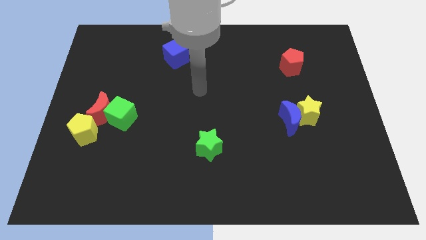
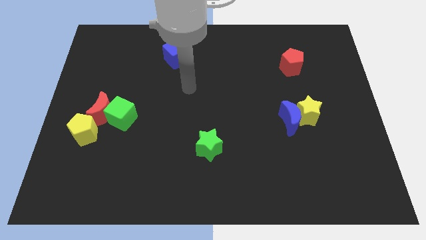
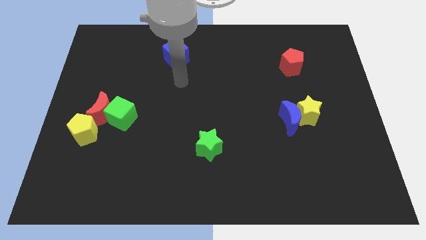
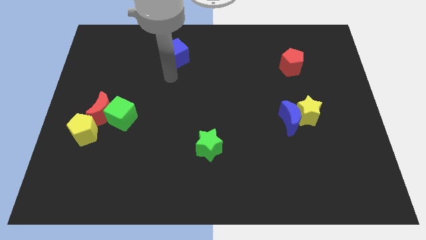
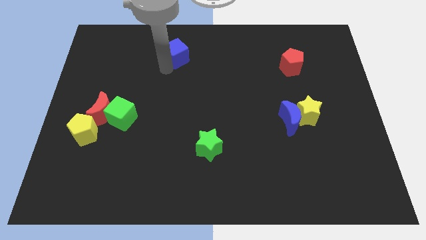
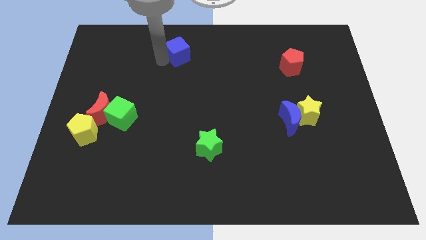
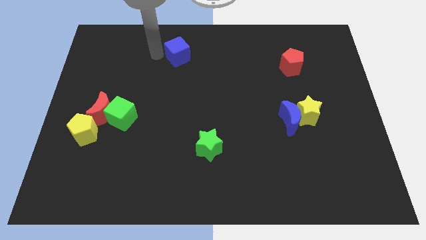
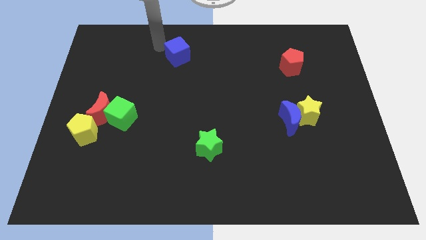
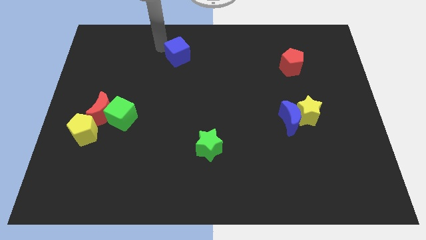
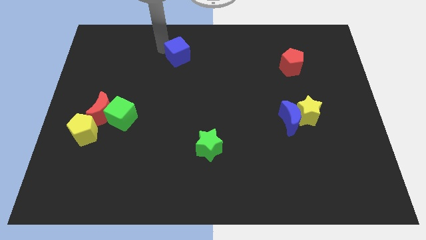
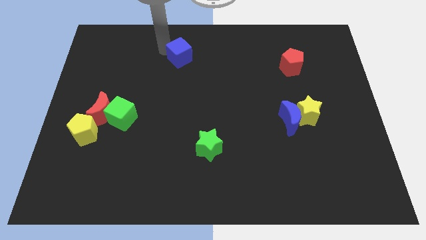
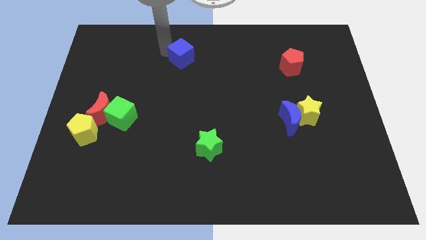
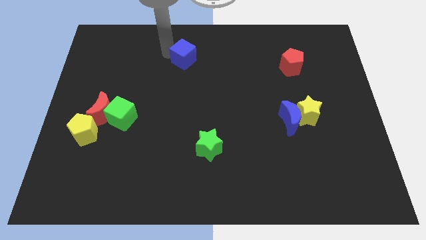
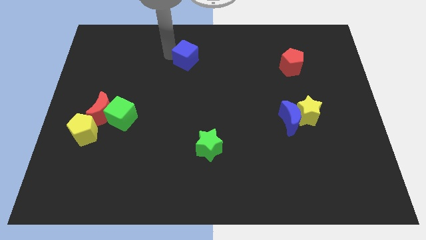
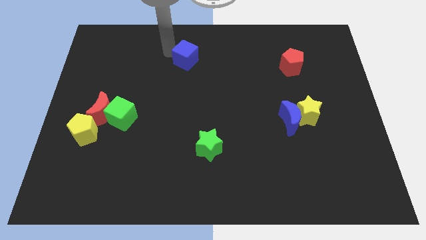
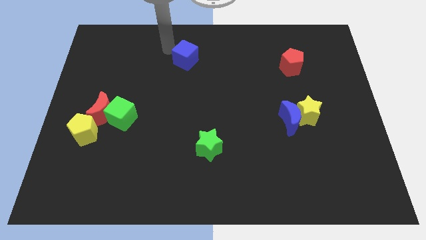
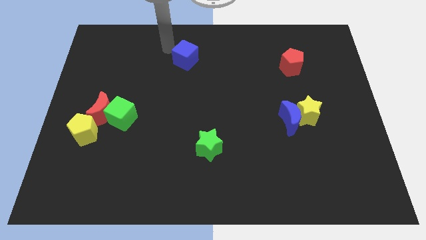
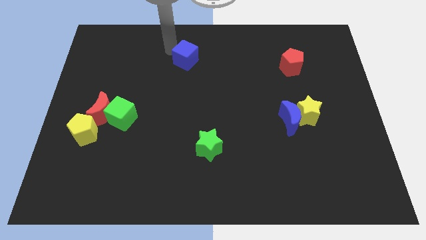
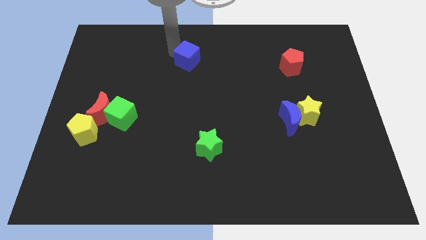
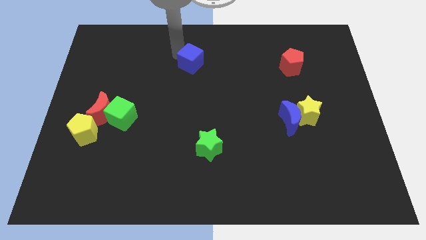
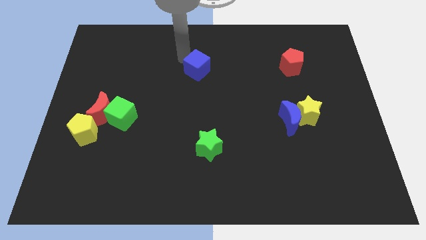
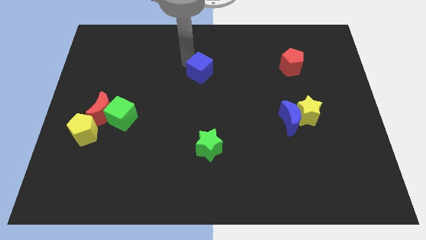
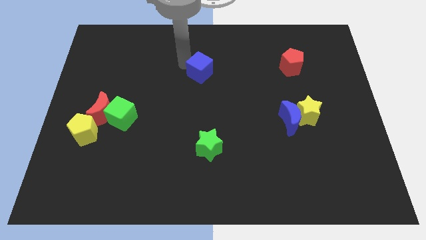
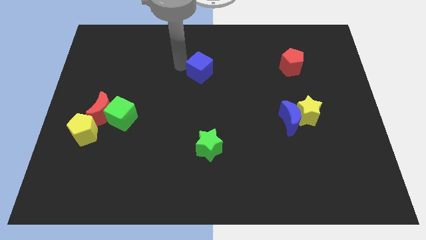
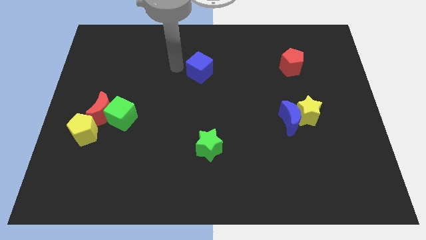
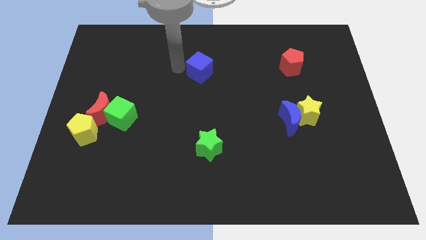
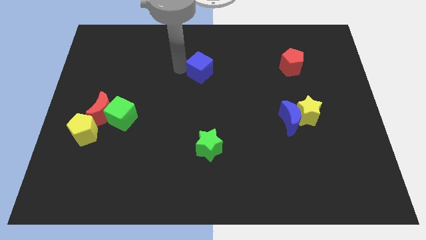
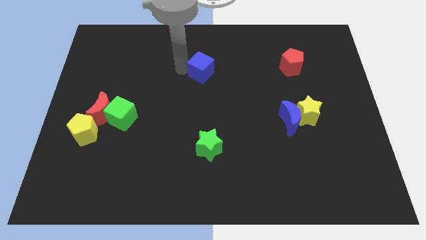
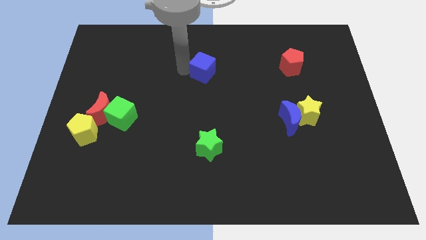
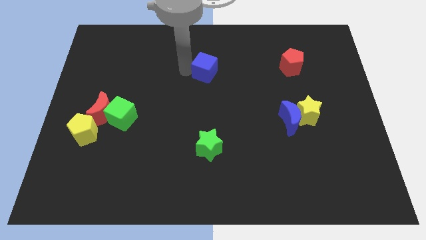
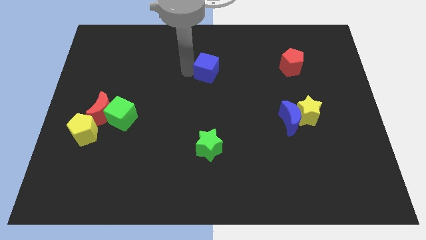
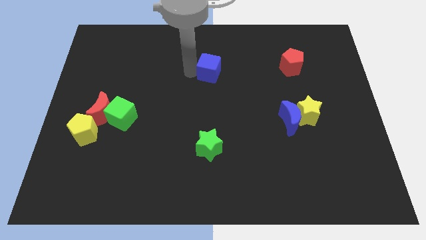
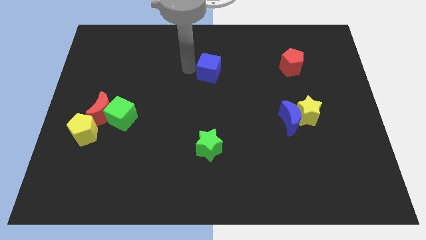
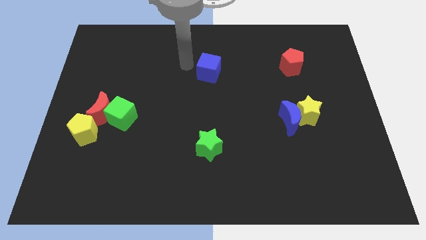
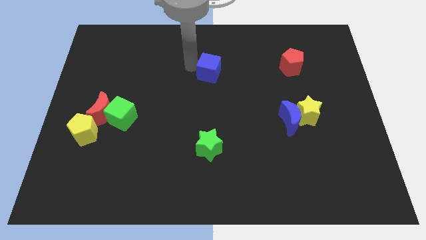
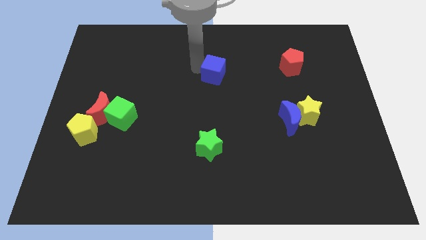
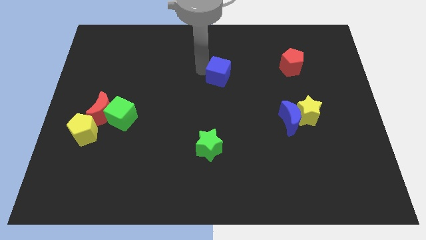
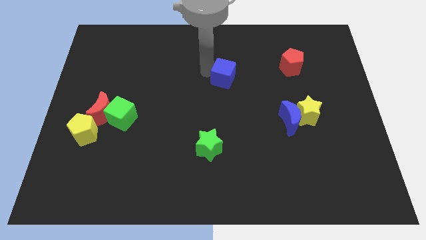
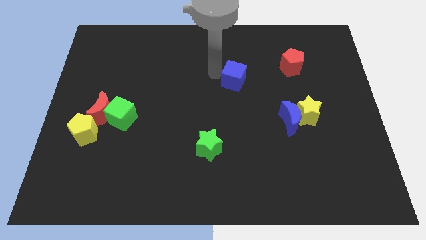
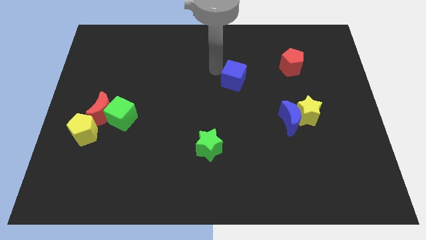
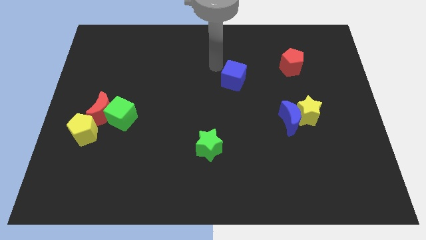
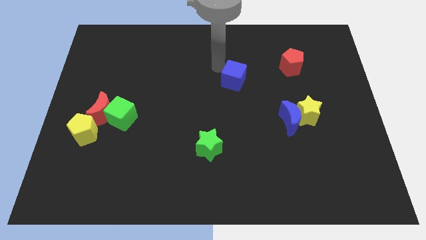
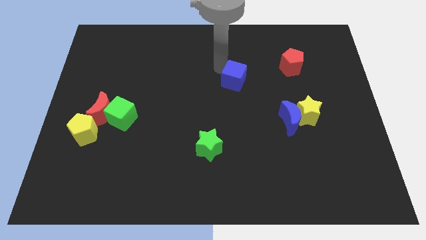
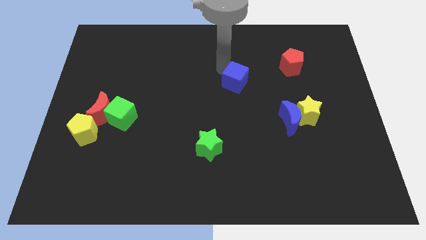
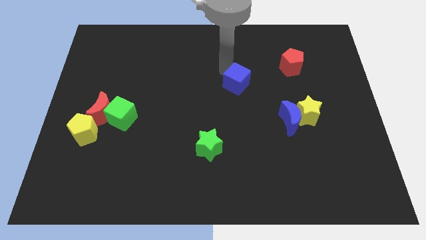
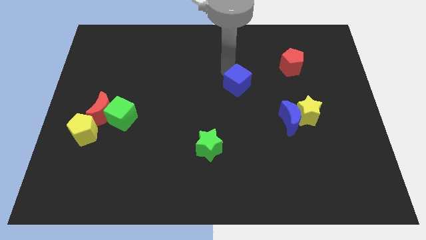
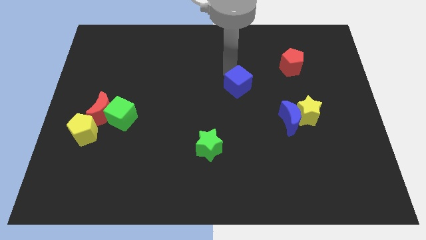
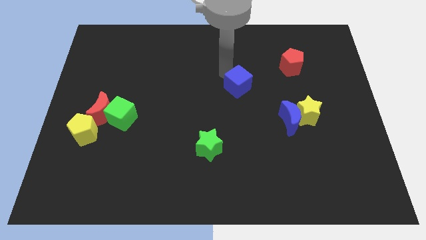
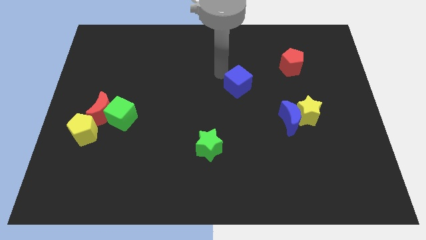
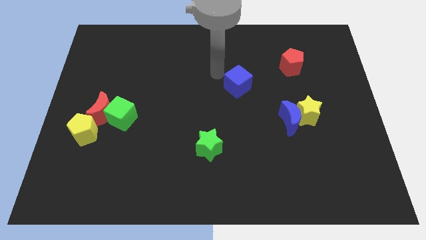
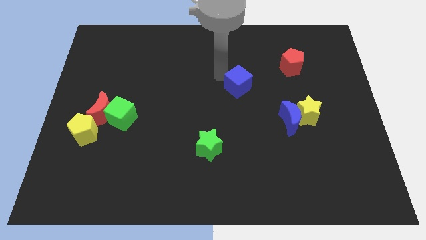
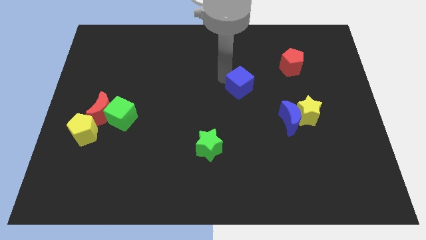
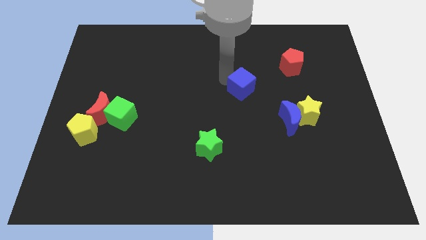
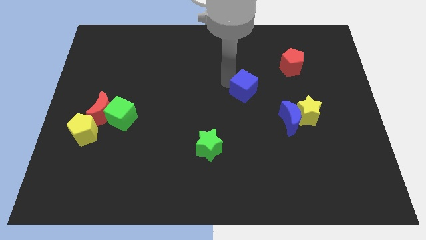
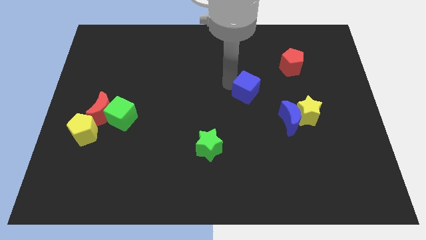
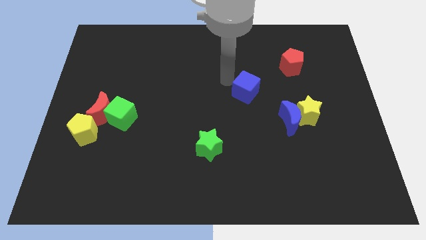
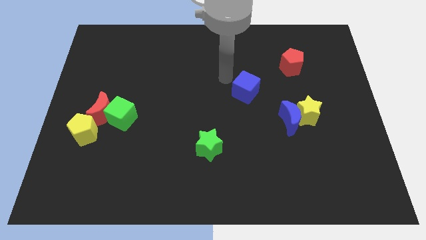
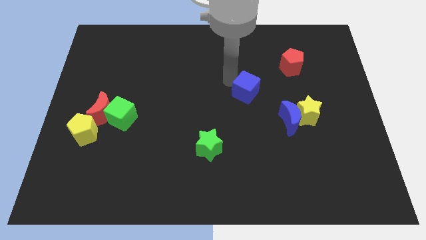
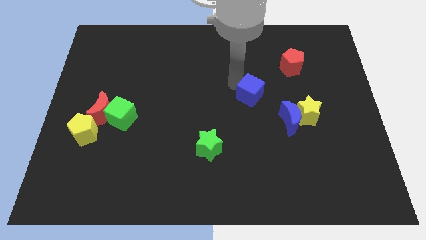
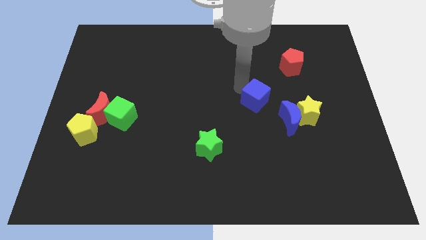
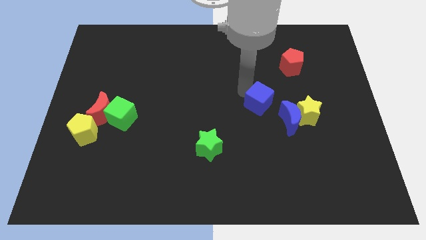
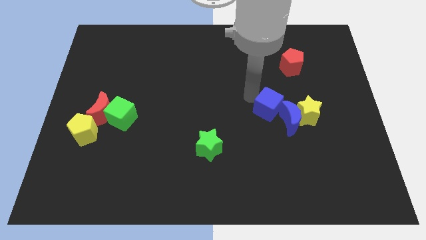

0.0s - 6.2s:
move the blue cube to the blue moon

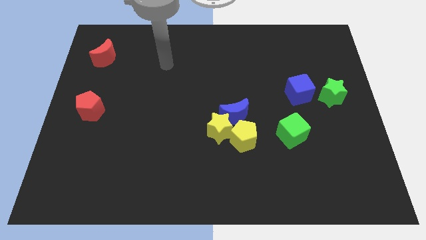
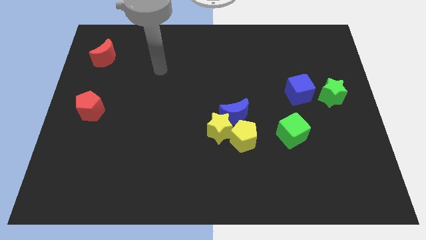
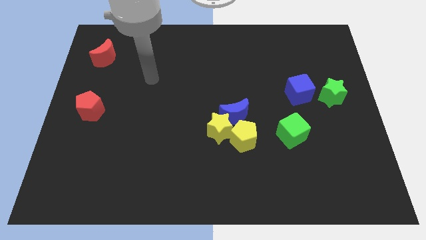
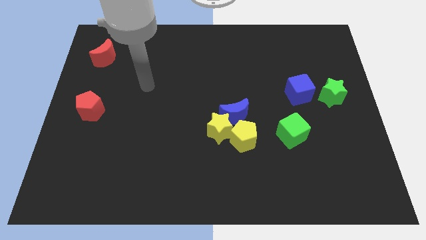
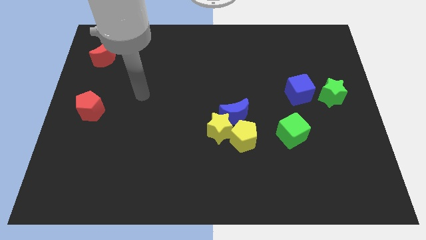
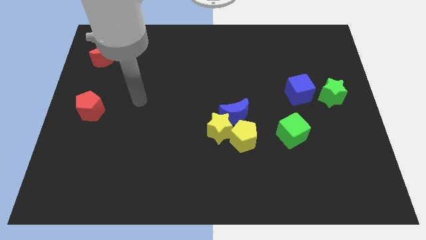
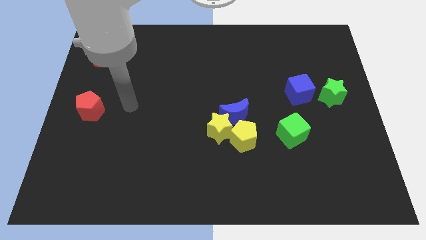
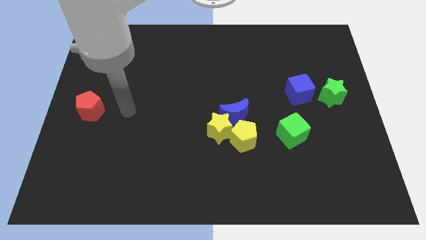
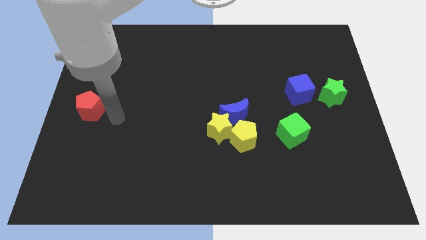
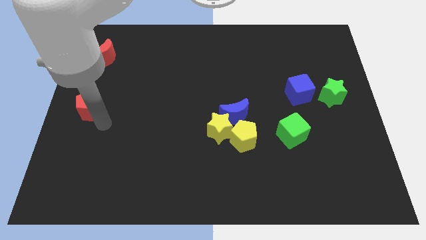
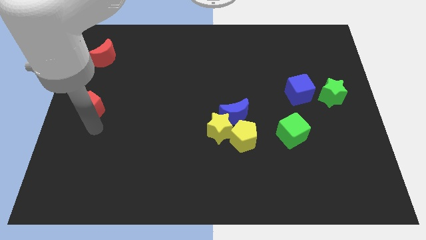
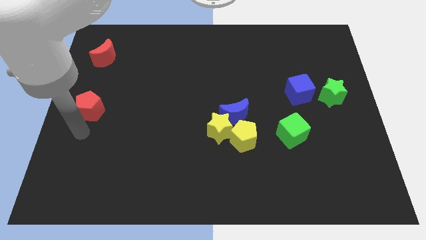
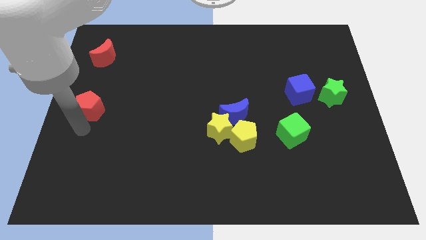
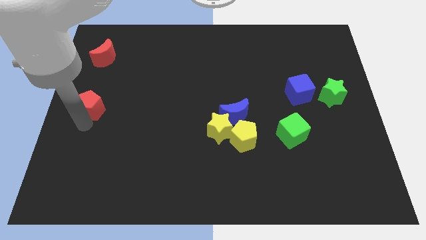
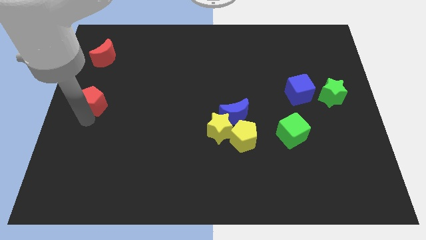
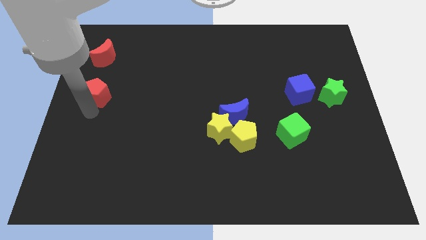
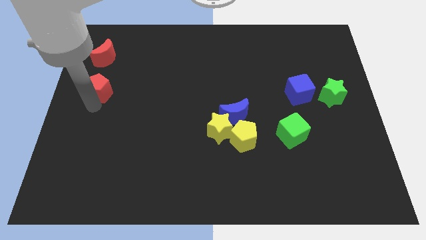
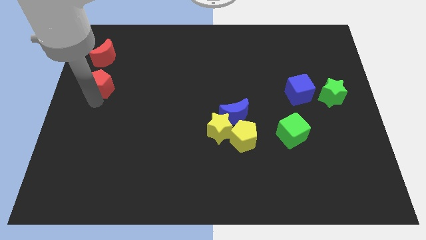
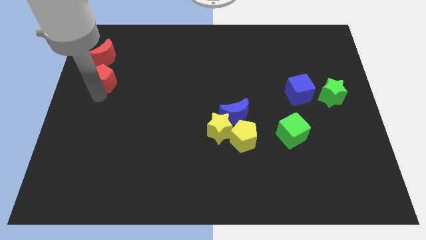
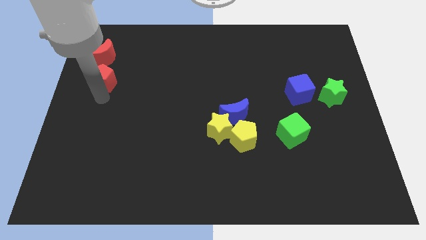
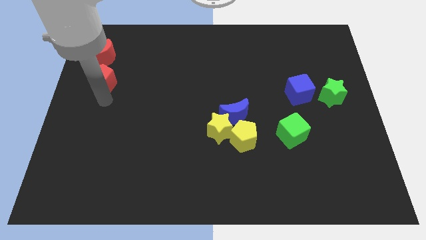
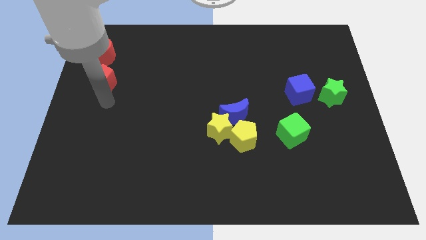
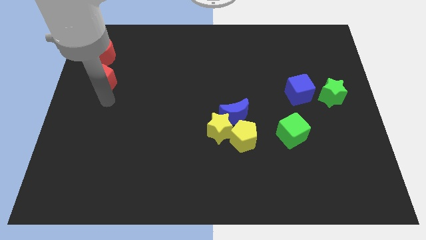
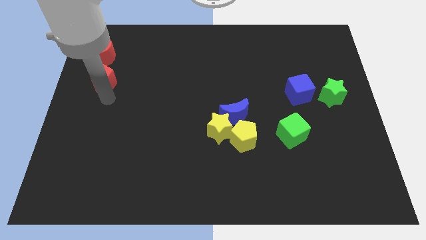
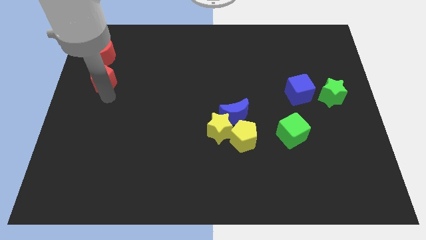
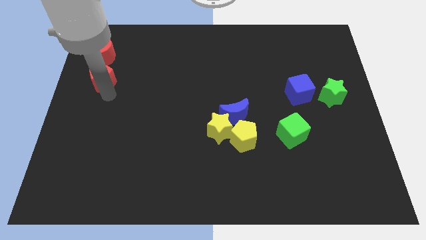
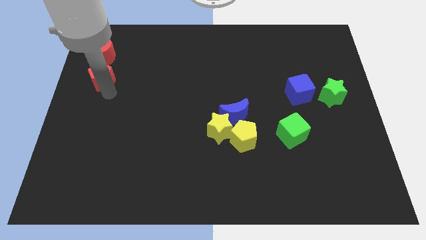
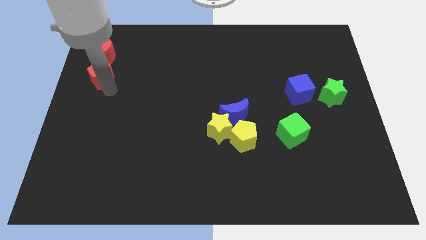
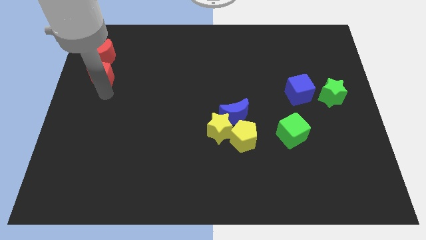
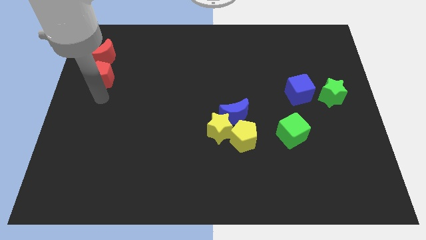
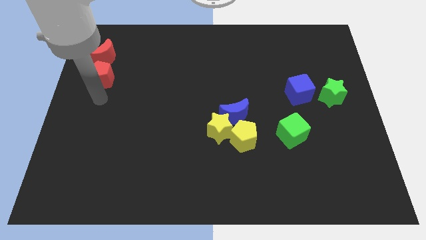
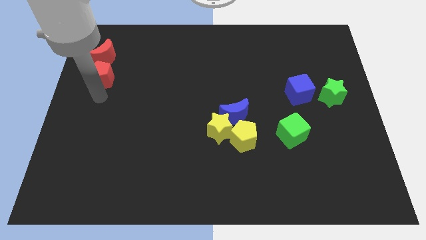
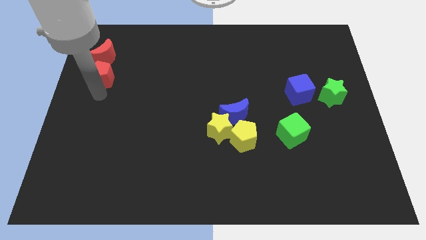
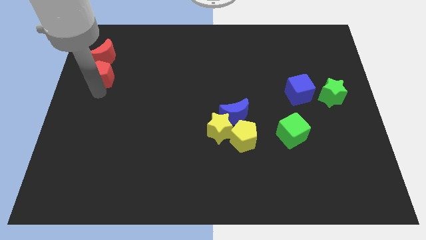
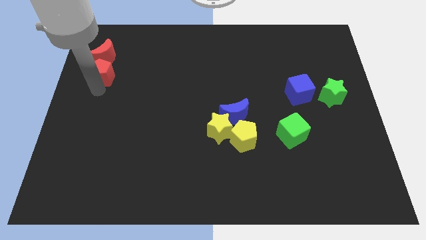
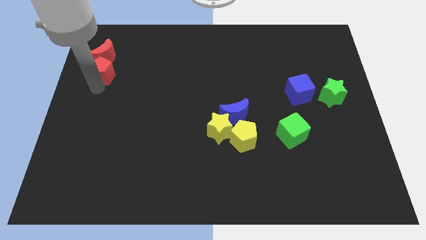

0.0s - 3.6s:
slide the red pentagon close to the red moon
